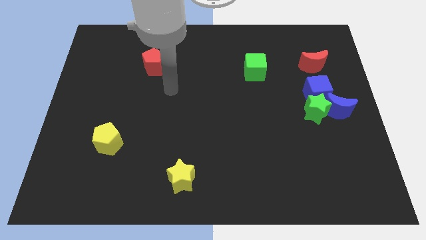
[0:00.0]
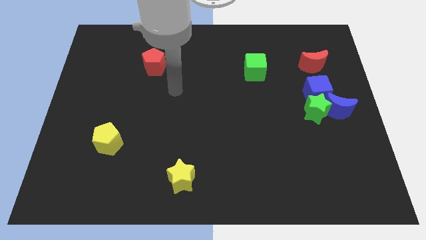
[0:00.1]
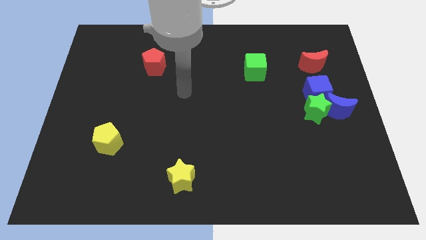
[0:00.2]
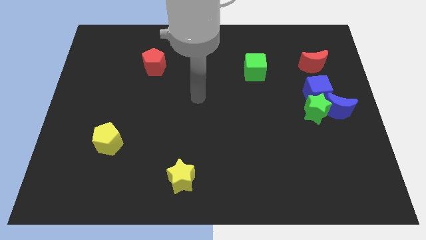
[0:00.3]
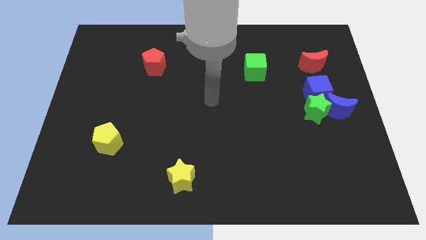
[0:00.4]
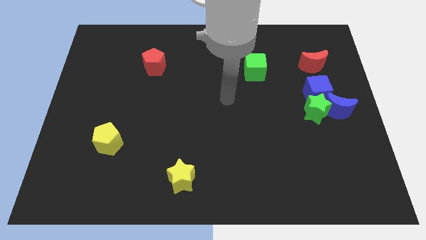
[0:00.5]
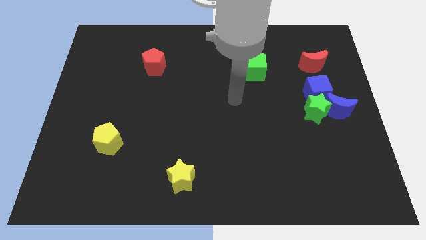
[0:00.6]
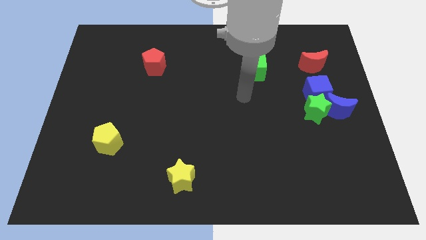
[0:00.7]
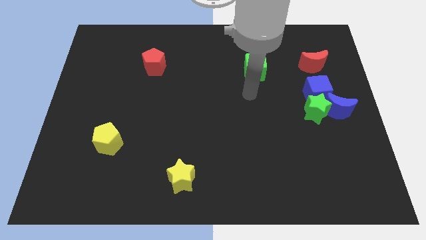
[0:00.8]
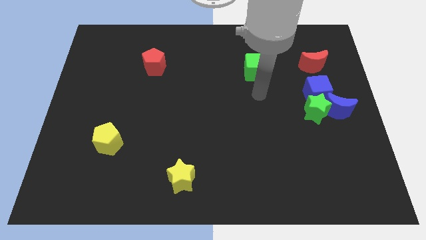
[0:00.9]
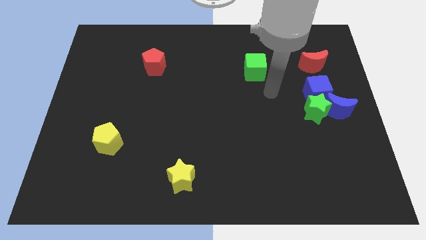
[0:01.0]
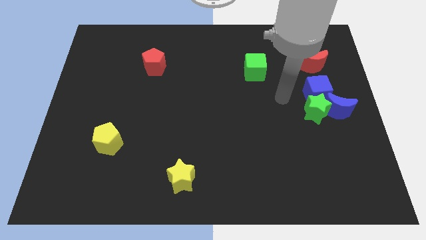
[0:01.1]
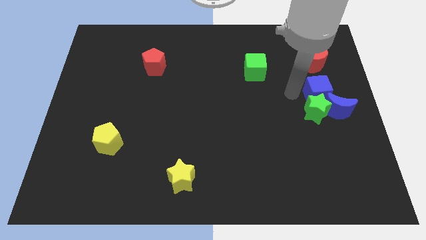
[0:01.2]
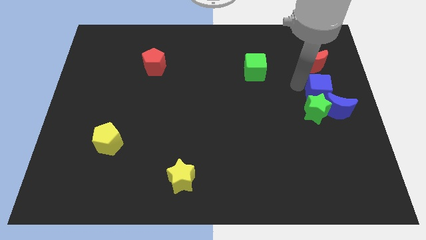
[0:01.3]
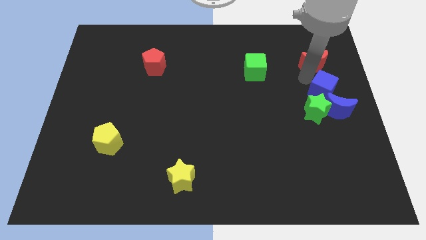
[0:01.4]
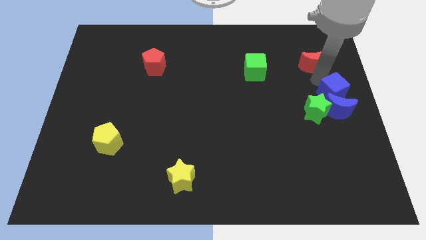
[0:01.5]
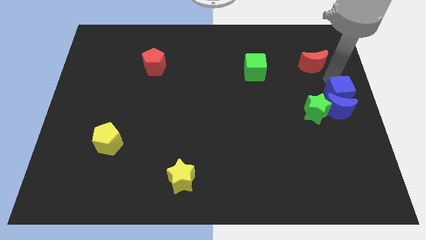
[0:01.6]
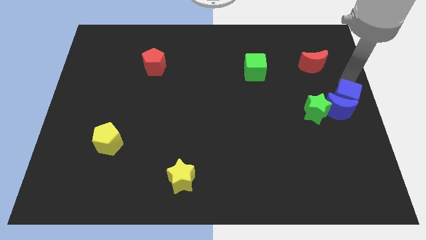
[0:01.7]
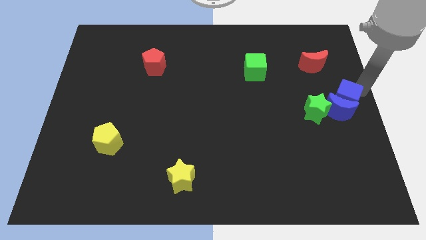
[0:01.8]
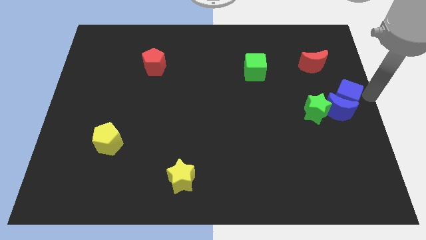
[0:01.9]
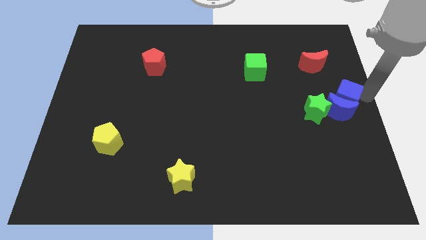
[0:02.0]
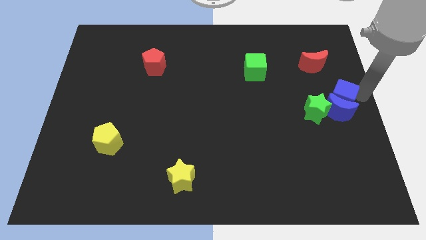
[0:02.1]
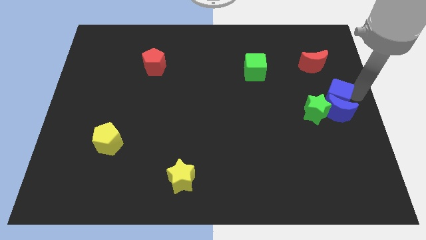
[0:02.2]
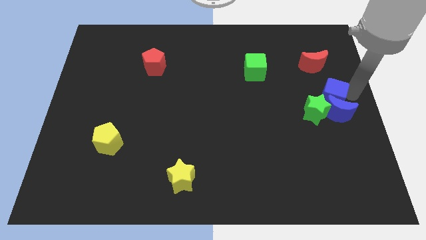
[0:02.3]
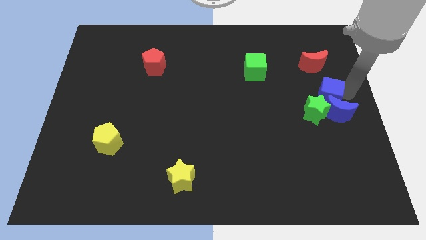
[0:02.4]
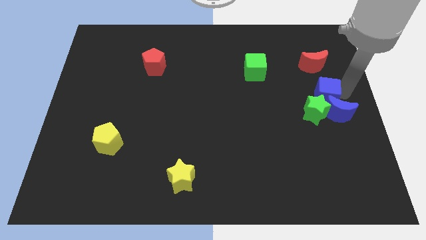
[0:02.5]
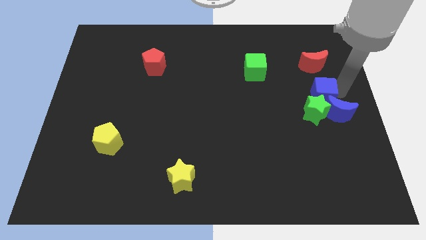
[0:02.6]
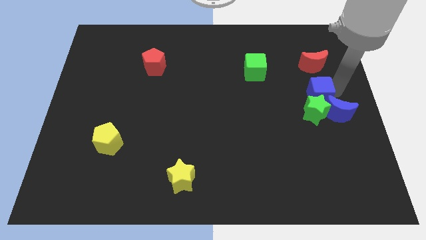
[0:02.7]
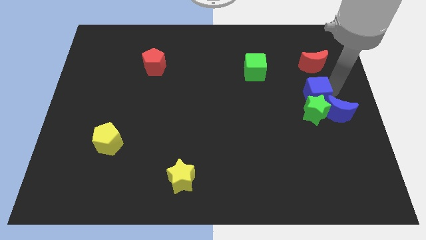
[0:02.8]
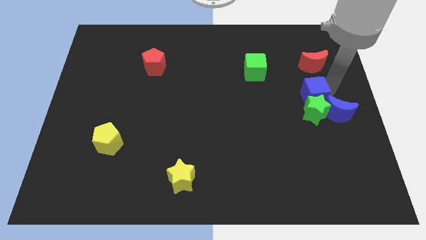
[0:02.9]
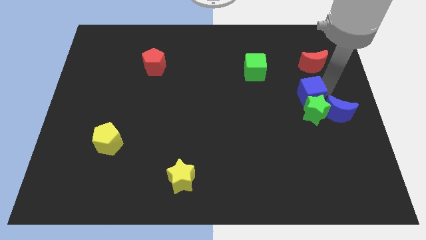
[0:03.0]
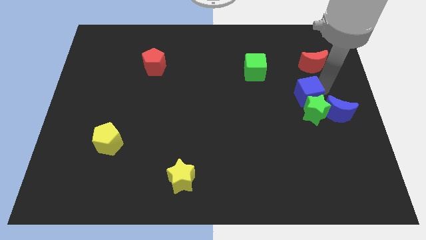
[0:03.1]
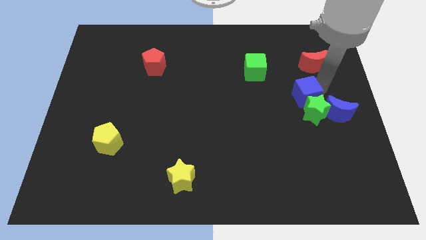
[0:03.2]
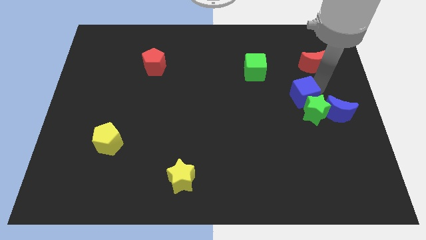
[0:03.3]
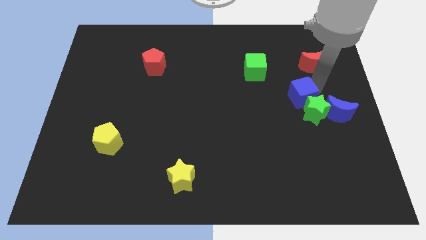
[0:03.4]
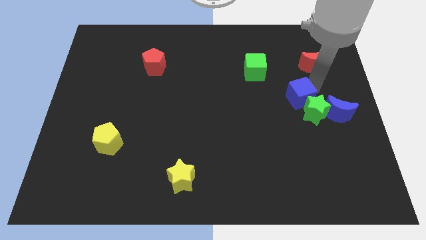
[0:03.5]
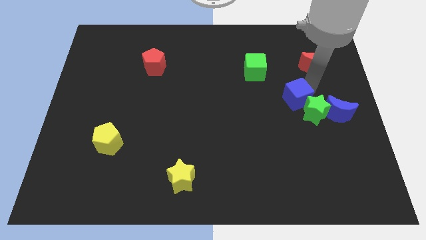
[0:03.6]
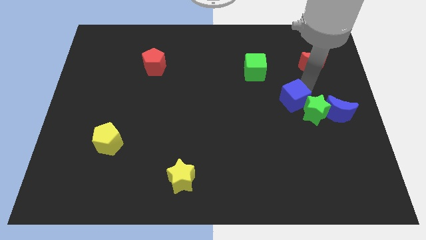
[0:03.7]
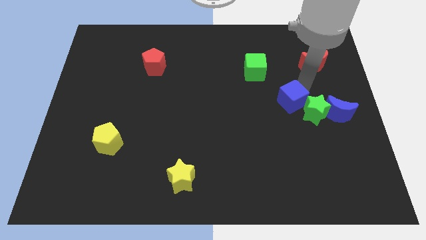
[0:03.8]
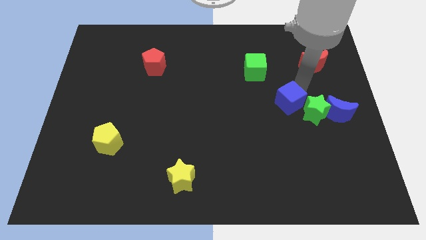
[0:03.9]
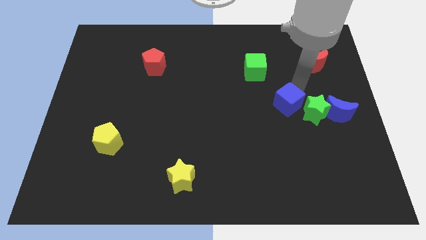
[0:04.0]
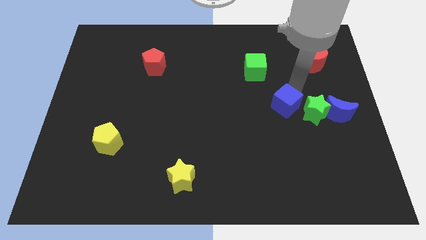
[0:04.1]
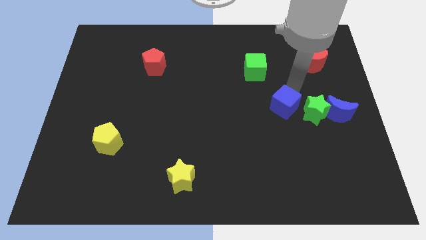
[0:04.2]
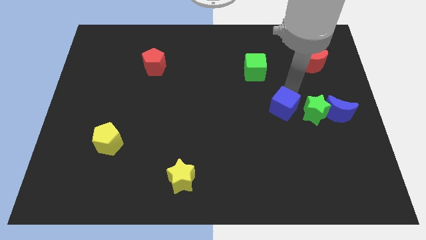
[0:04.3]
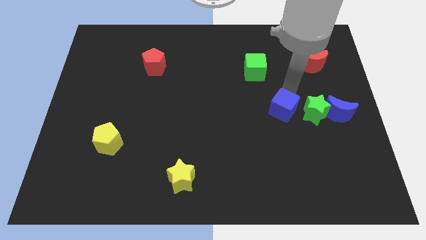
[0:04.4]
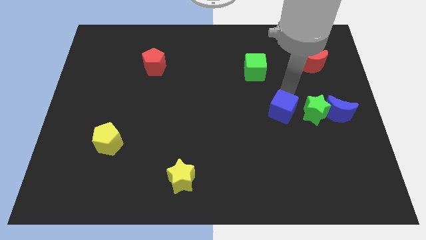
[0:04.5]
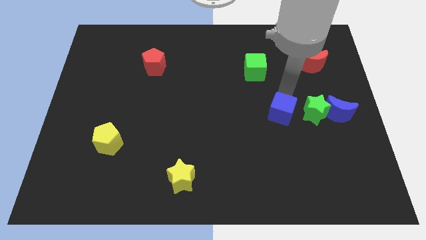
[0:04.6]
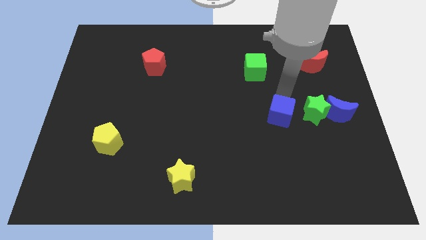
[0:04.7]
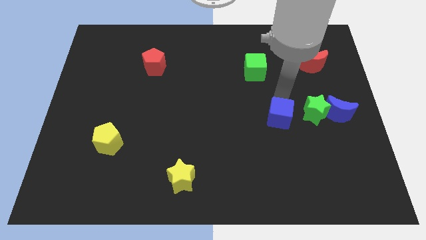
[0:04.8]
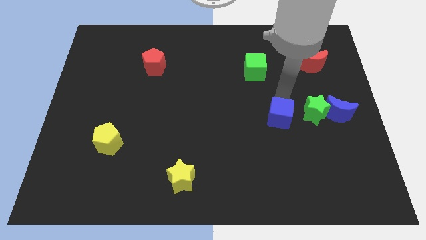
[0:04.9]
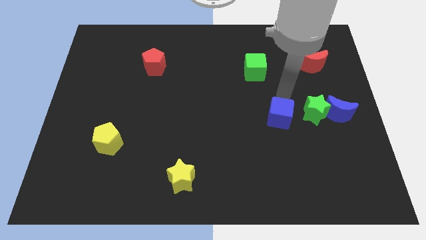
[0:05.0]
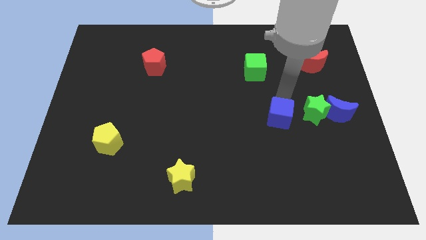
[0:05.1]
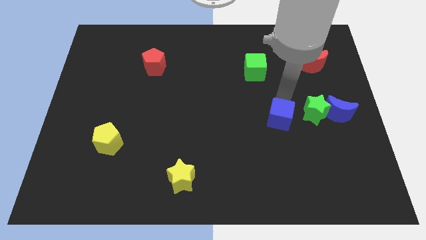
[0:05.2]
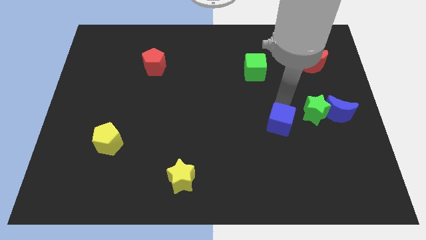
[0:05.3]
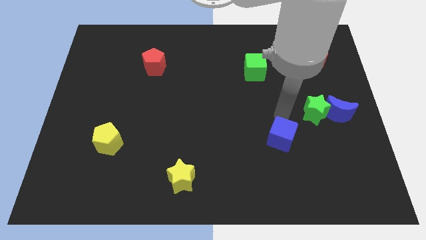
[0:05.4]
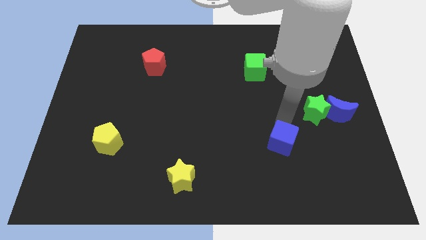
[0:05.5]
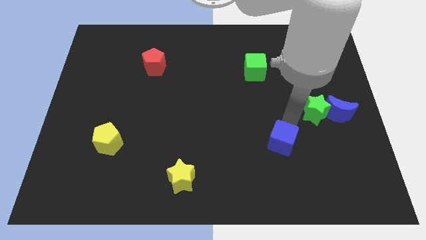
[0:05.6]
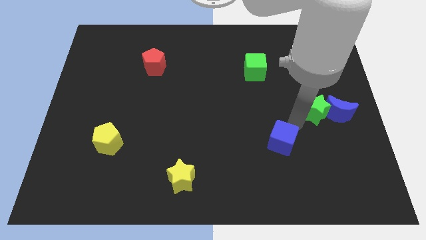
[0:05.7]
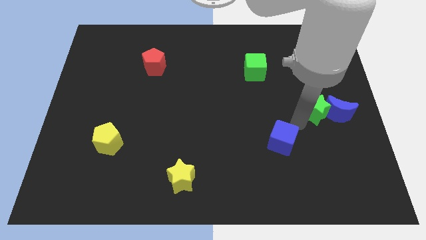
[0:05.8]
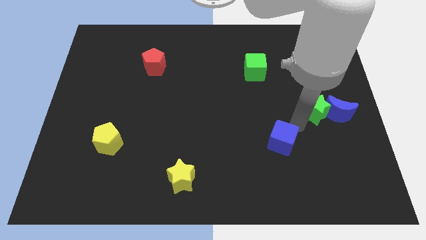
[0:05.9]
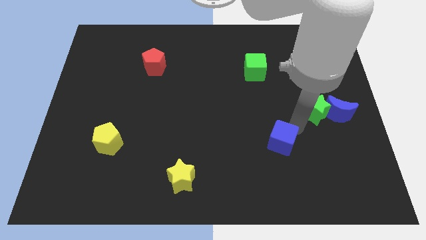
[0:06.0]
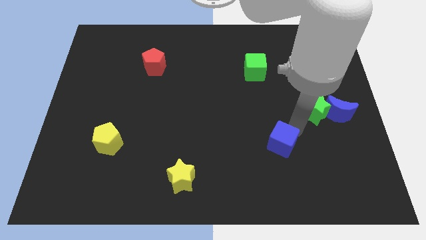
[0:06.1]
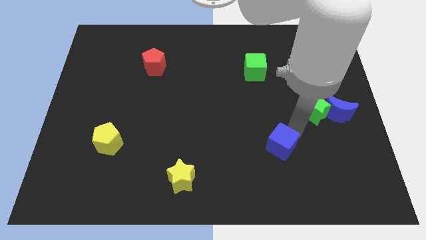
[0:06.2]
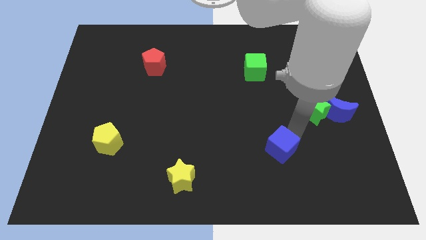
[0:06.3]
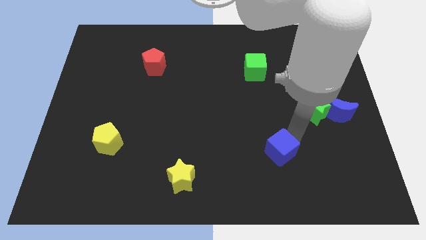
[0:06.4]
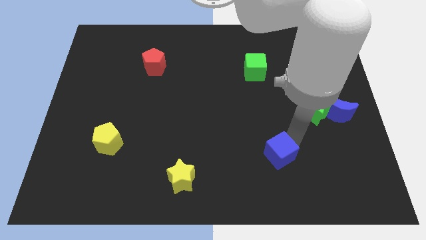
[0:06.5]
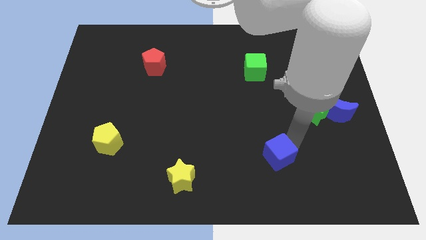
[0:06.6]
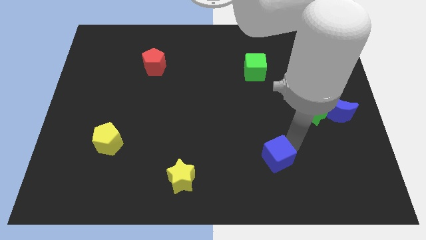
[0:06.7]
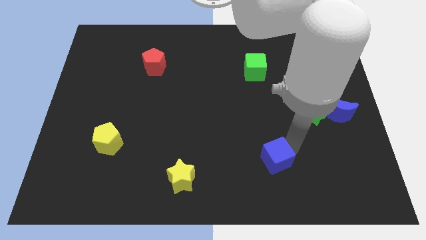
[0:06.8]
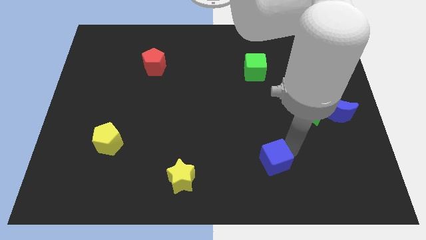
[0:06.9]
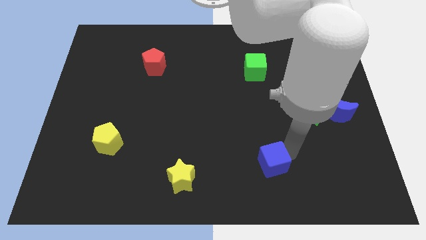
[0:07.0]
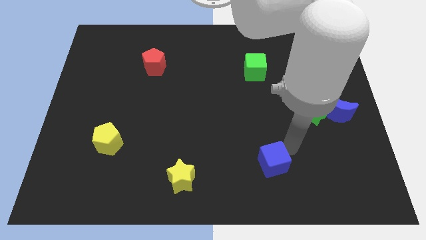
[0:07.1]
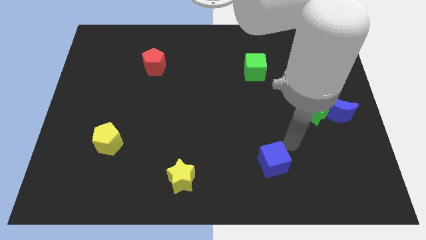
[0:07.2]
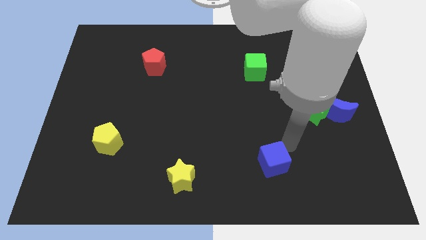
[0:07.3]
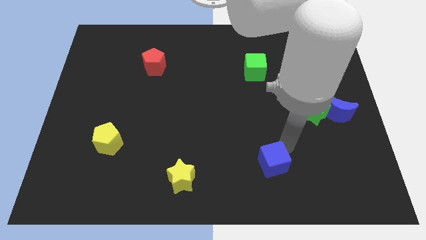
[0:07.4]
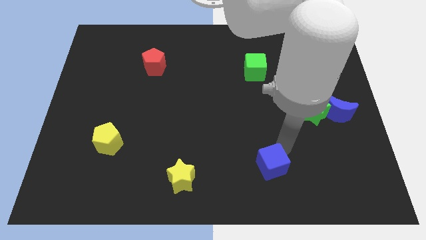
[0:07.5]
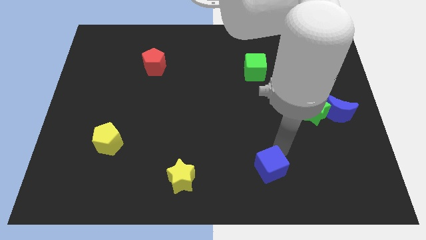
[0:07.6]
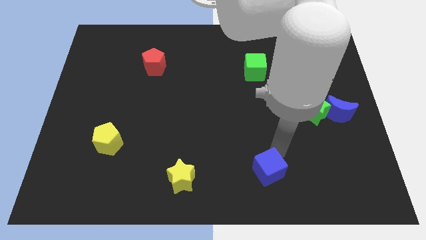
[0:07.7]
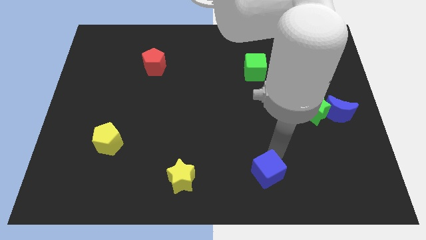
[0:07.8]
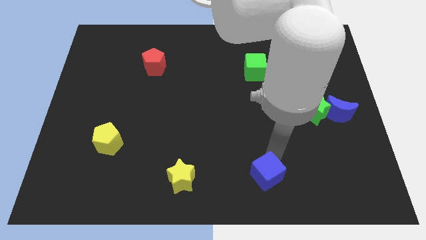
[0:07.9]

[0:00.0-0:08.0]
slide the blue cube to the bottom
